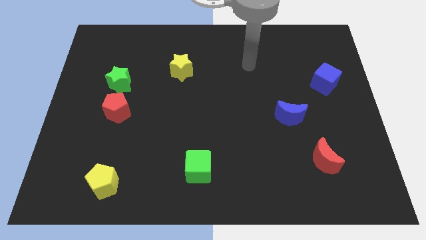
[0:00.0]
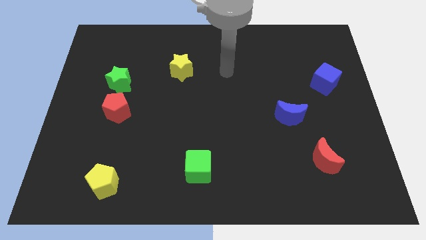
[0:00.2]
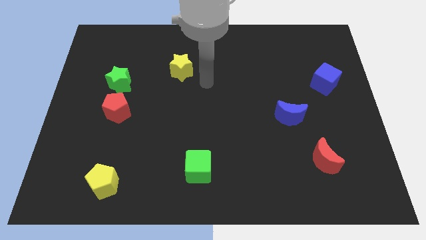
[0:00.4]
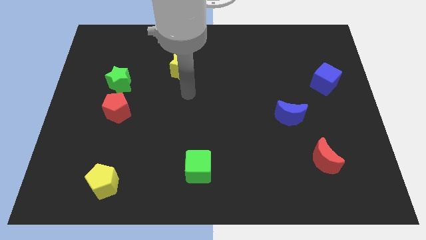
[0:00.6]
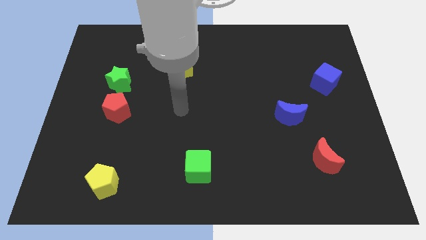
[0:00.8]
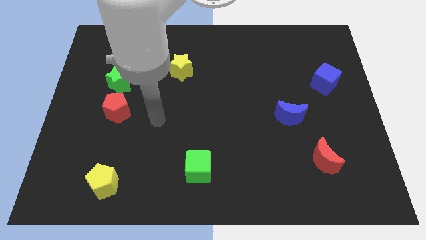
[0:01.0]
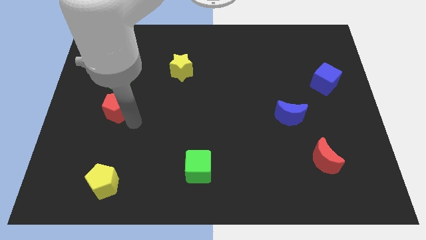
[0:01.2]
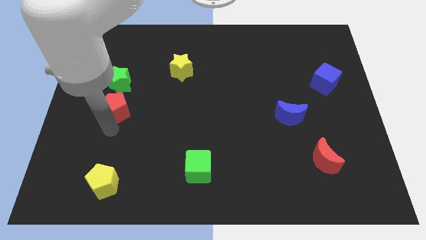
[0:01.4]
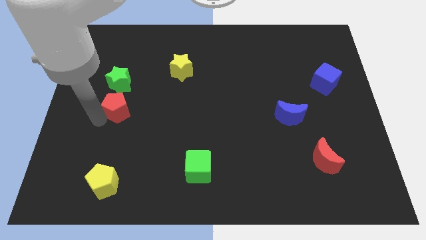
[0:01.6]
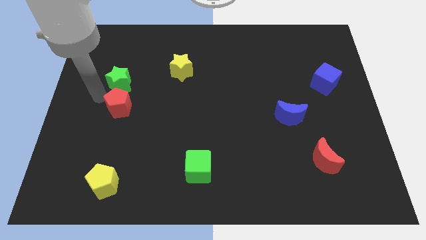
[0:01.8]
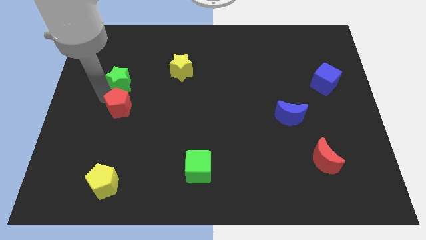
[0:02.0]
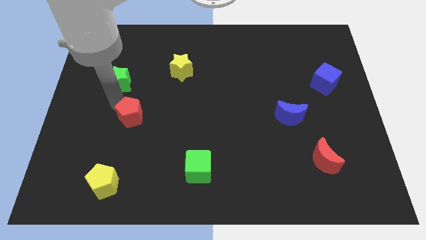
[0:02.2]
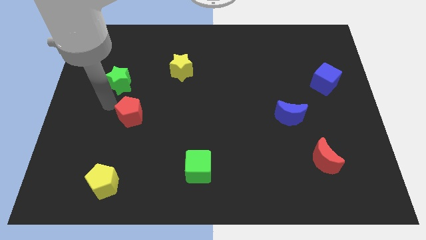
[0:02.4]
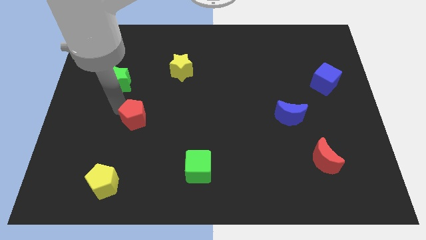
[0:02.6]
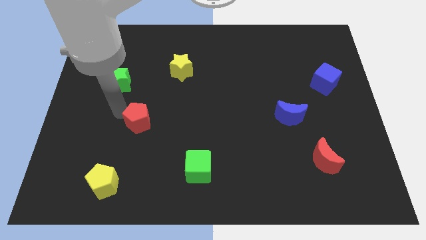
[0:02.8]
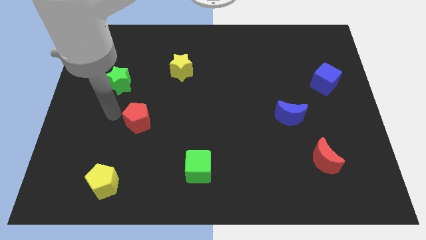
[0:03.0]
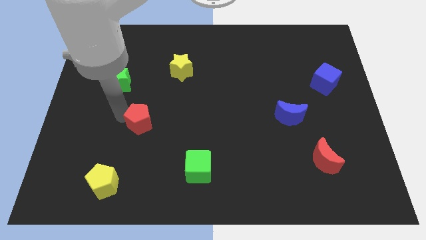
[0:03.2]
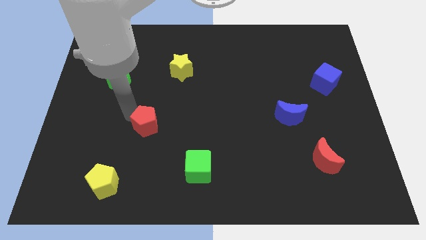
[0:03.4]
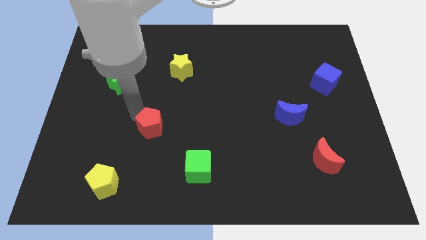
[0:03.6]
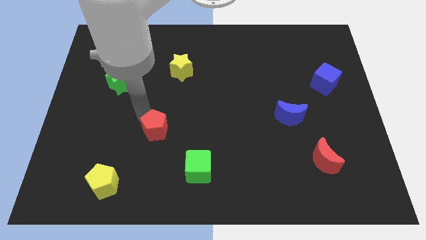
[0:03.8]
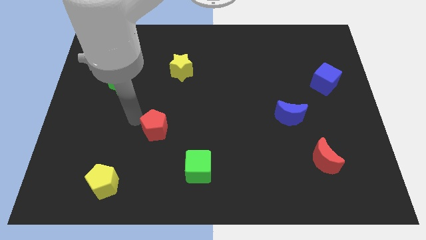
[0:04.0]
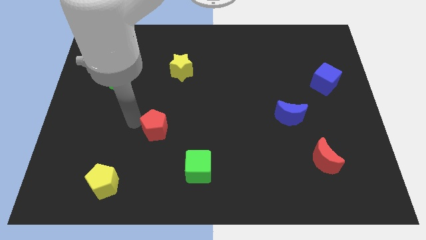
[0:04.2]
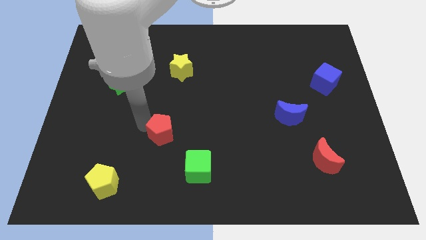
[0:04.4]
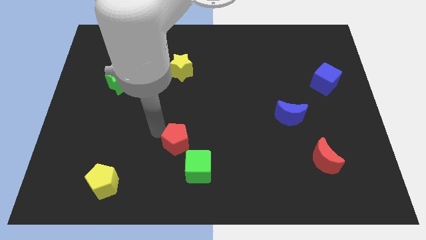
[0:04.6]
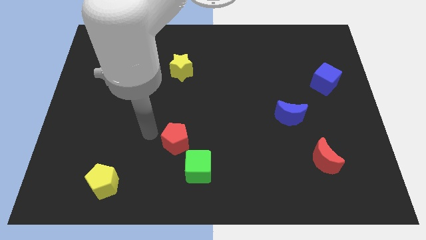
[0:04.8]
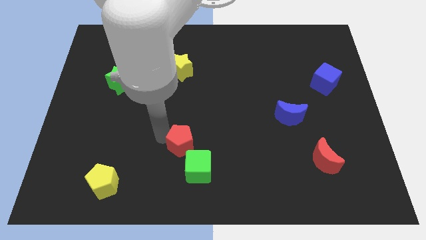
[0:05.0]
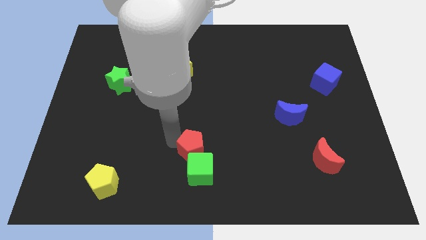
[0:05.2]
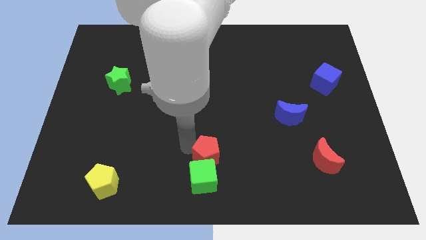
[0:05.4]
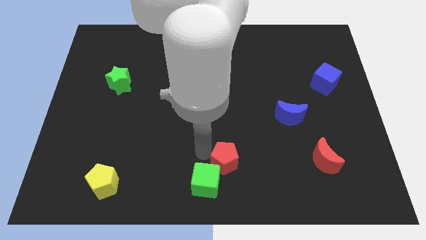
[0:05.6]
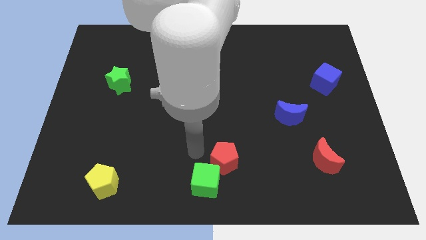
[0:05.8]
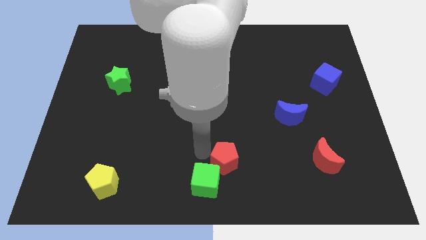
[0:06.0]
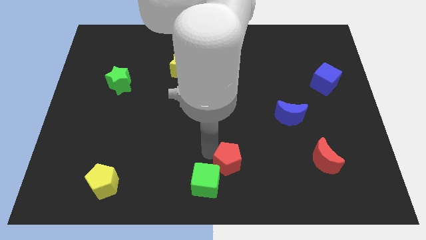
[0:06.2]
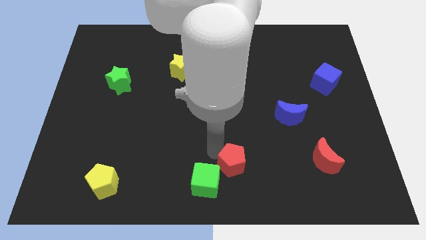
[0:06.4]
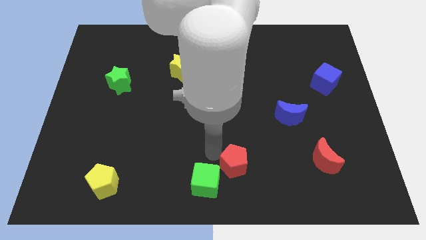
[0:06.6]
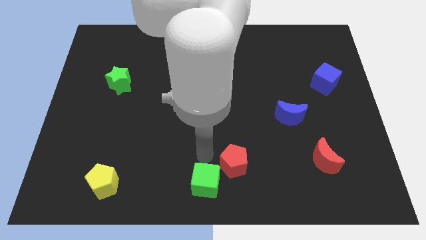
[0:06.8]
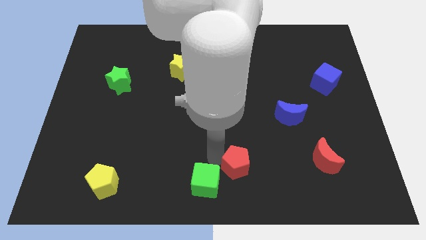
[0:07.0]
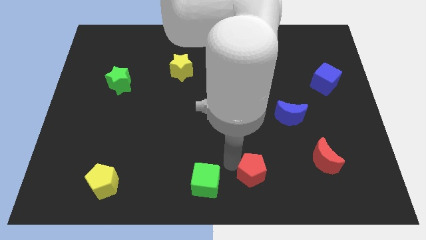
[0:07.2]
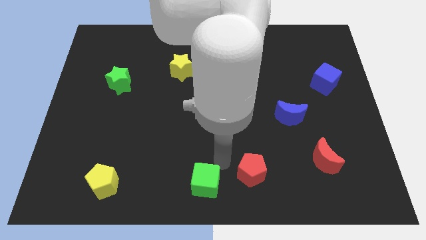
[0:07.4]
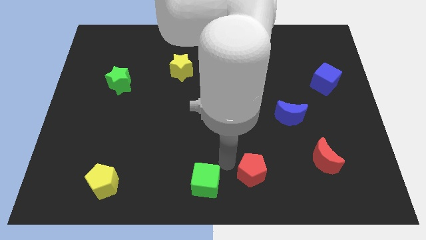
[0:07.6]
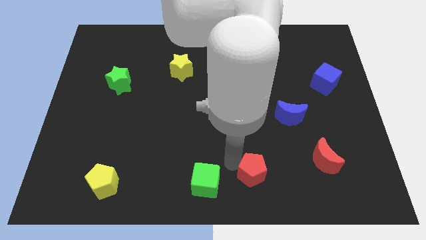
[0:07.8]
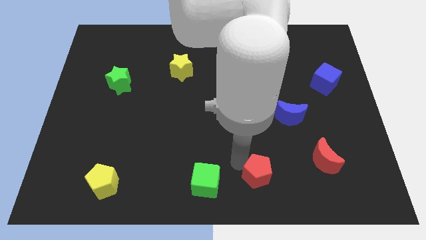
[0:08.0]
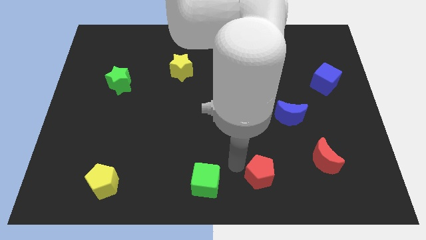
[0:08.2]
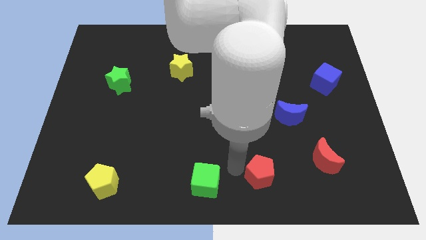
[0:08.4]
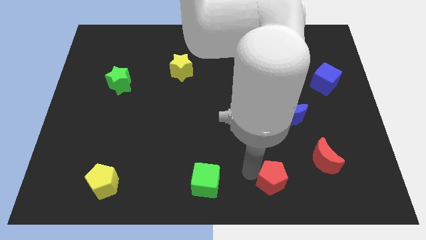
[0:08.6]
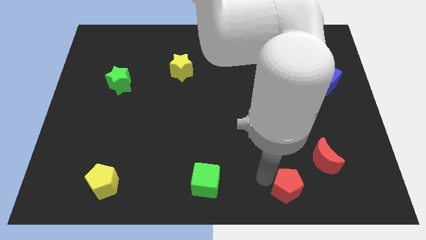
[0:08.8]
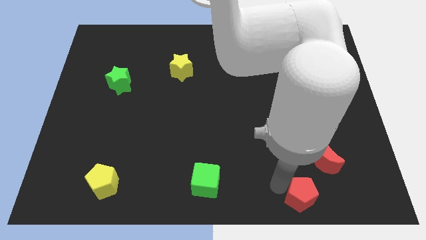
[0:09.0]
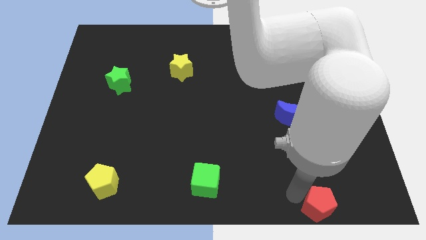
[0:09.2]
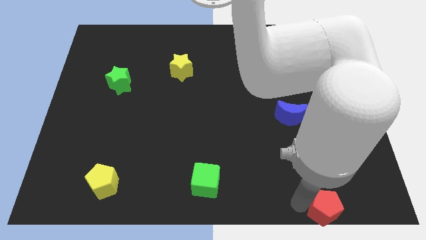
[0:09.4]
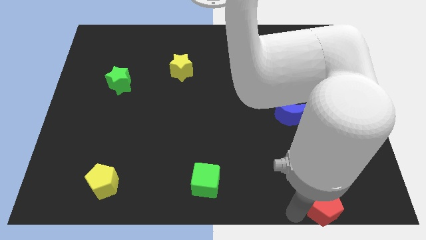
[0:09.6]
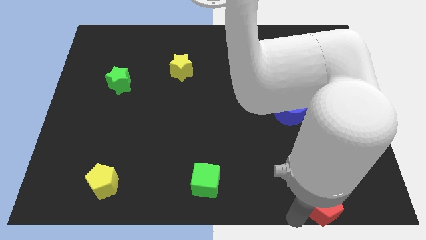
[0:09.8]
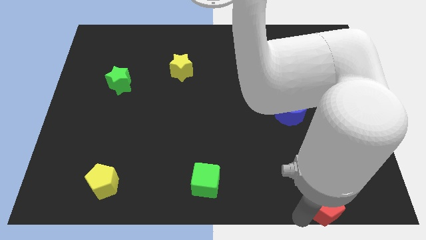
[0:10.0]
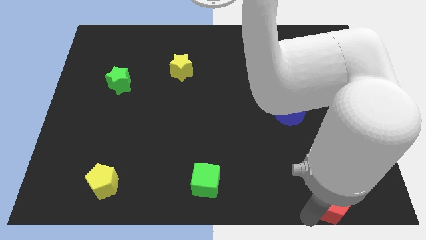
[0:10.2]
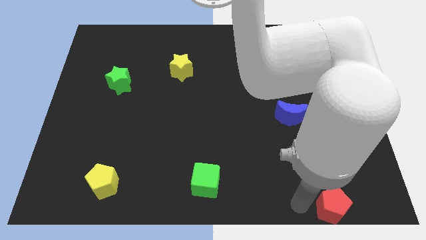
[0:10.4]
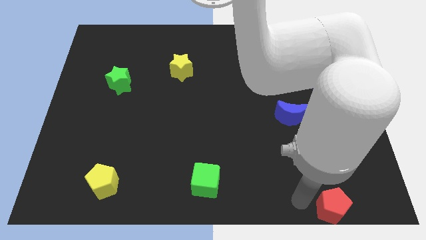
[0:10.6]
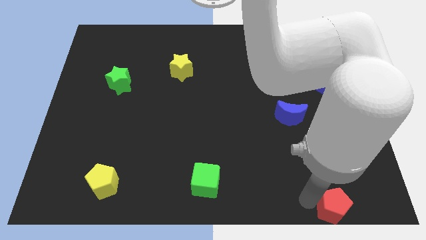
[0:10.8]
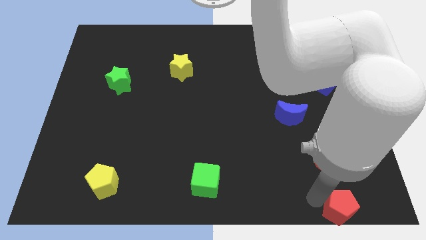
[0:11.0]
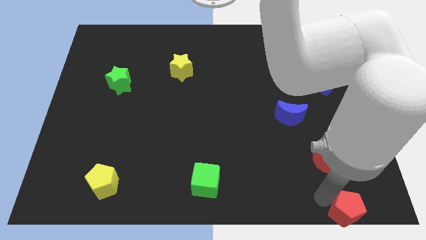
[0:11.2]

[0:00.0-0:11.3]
slide the red pentagon to the bottom right corner

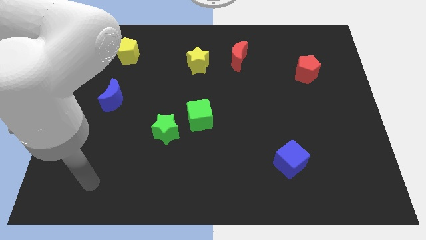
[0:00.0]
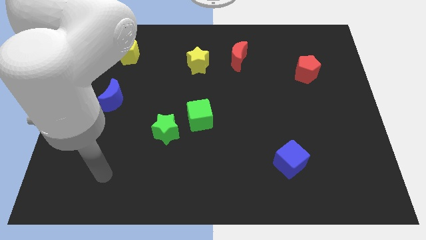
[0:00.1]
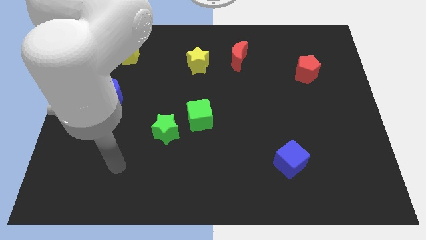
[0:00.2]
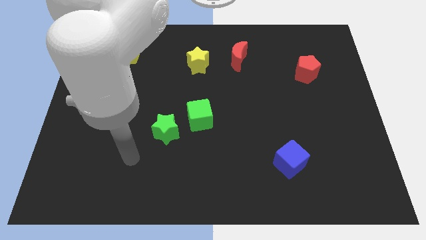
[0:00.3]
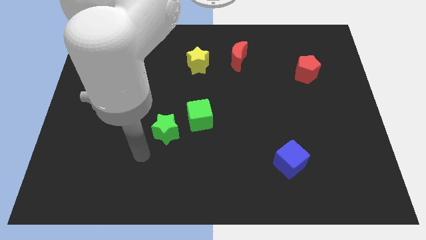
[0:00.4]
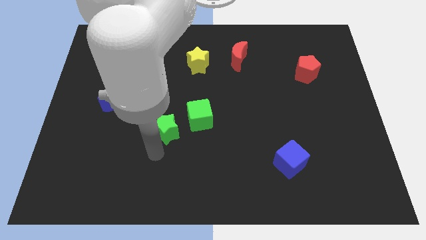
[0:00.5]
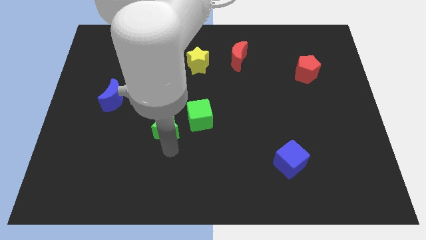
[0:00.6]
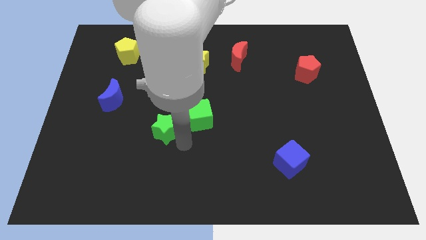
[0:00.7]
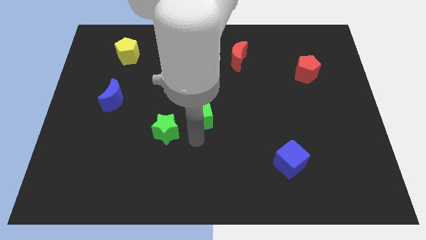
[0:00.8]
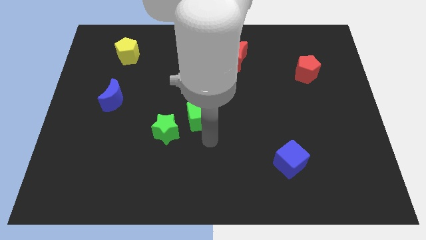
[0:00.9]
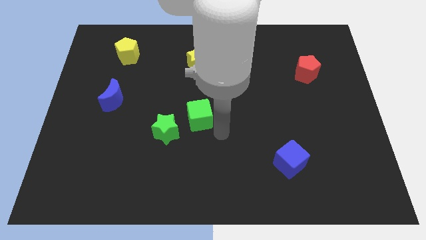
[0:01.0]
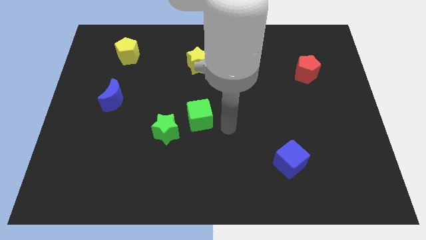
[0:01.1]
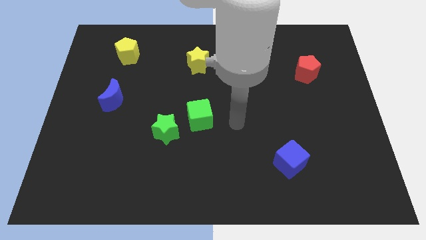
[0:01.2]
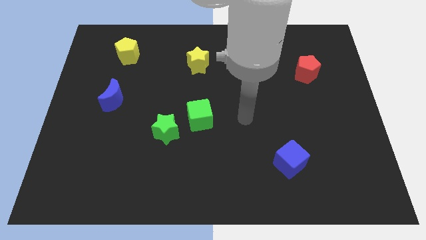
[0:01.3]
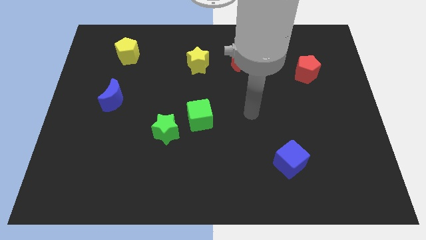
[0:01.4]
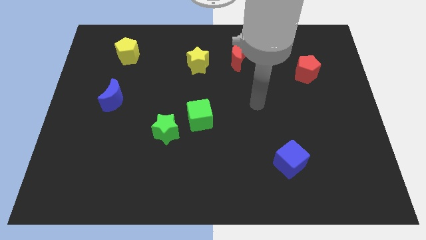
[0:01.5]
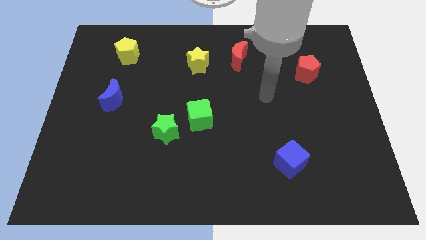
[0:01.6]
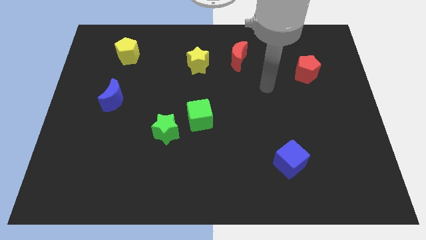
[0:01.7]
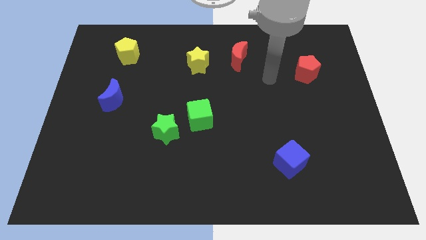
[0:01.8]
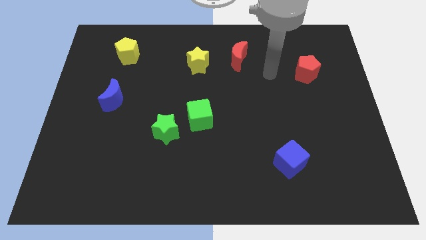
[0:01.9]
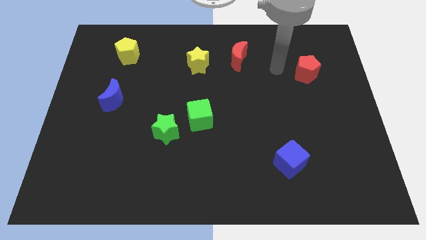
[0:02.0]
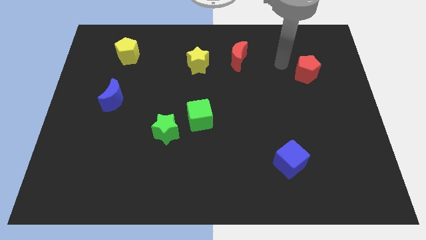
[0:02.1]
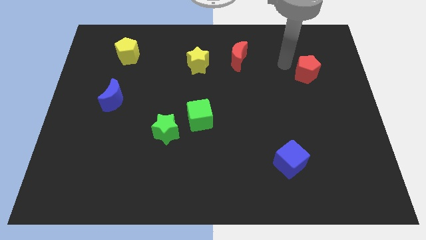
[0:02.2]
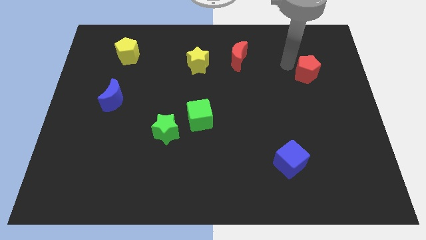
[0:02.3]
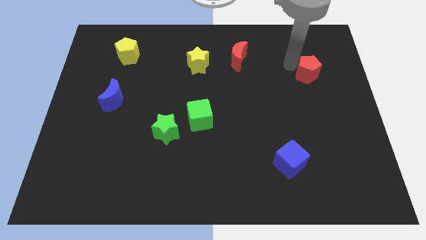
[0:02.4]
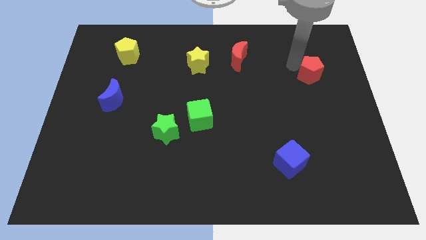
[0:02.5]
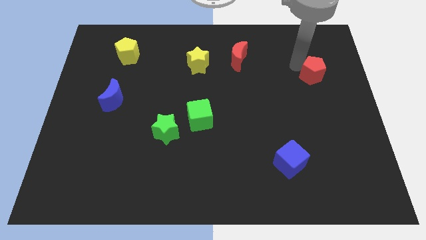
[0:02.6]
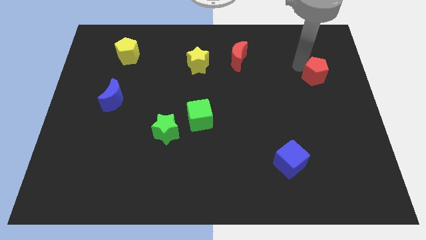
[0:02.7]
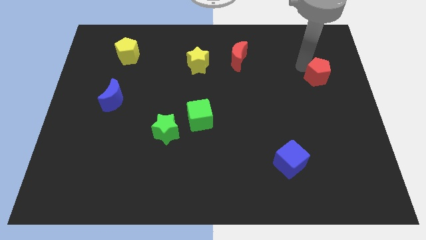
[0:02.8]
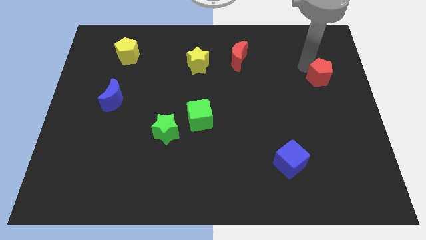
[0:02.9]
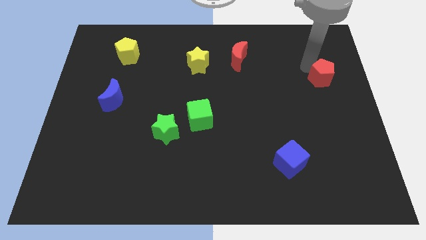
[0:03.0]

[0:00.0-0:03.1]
move the red pentagon to the center right
